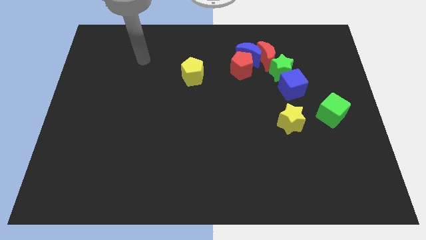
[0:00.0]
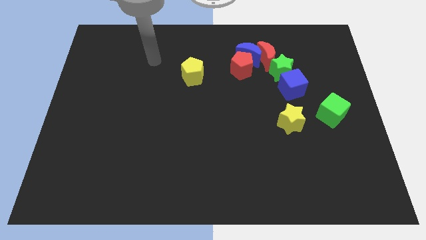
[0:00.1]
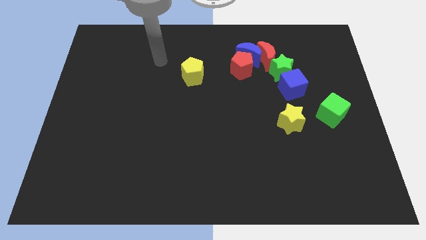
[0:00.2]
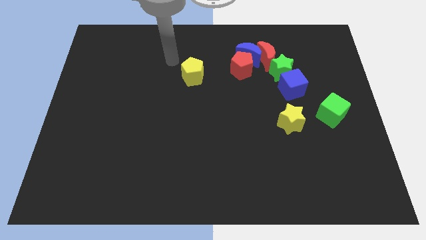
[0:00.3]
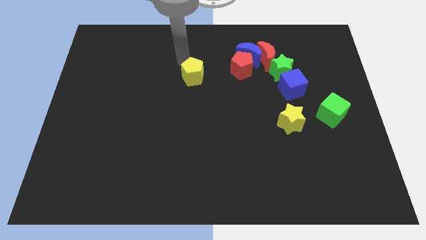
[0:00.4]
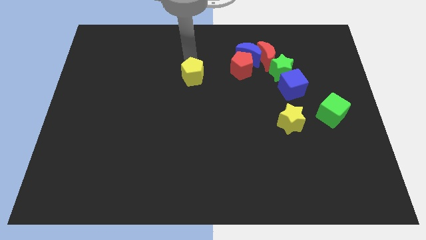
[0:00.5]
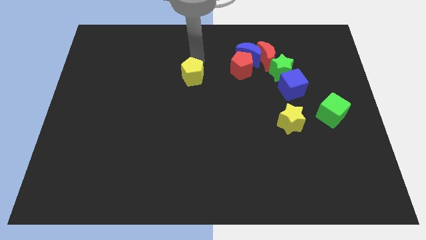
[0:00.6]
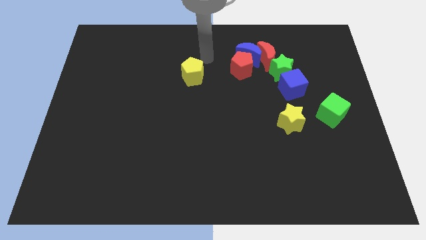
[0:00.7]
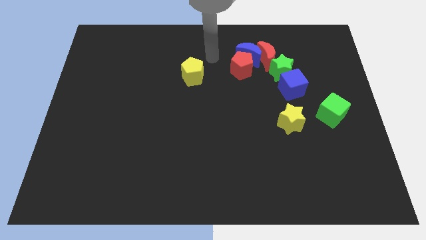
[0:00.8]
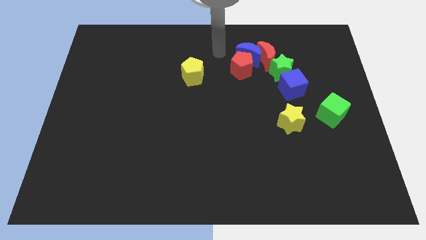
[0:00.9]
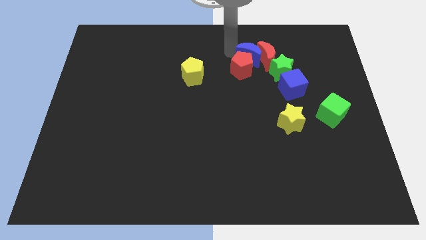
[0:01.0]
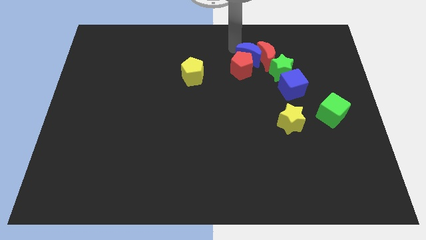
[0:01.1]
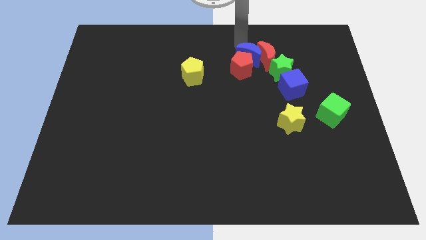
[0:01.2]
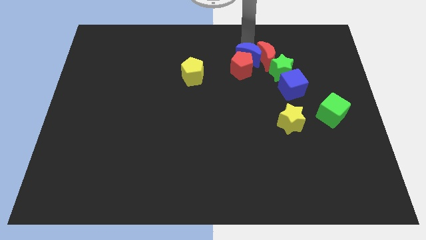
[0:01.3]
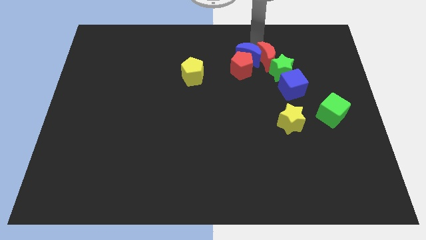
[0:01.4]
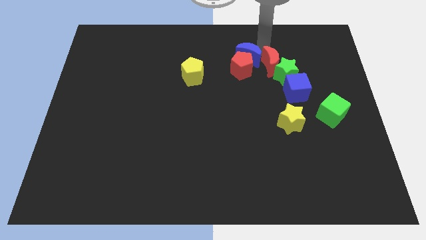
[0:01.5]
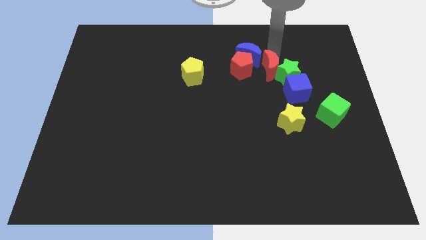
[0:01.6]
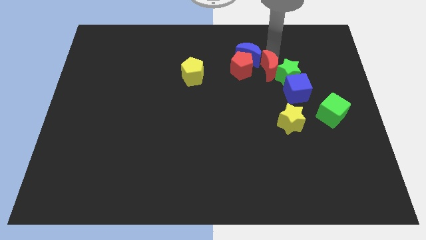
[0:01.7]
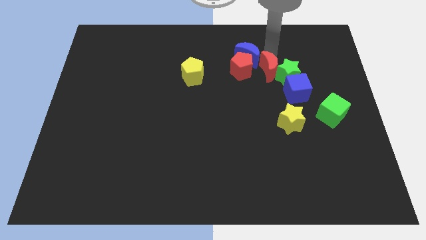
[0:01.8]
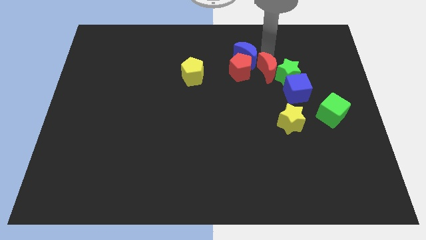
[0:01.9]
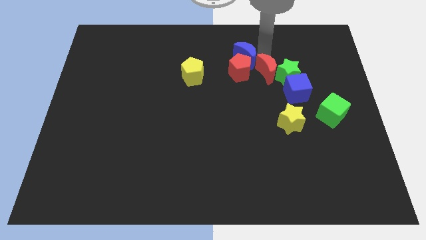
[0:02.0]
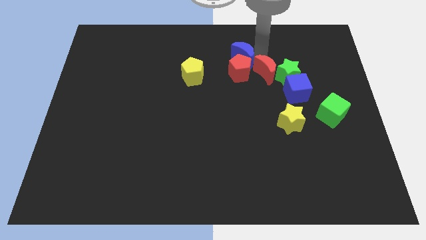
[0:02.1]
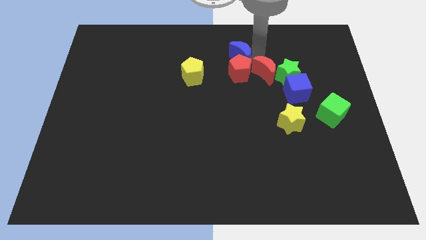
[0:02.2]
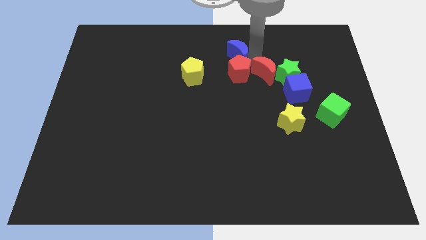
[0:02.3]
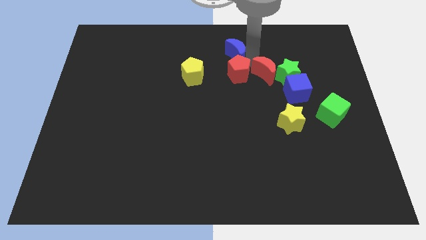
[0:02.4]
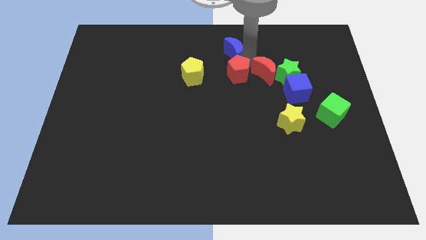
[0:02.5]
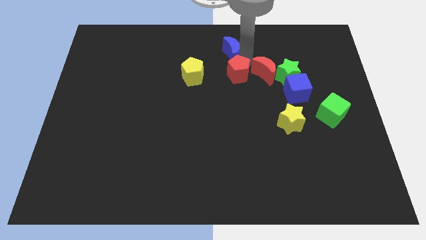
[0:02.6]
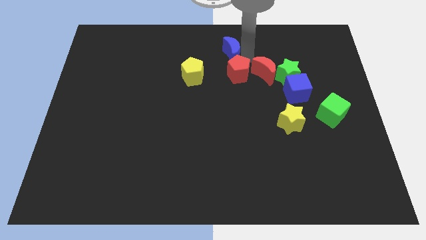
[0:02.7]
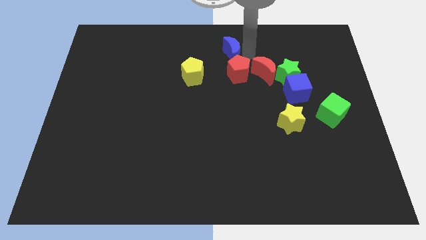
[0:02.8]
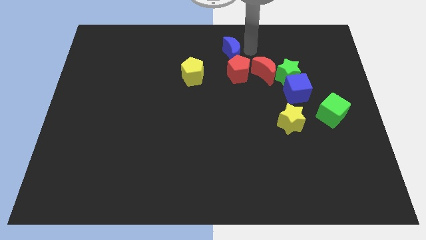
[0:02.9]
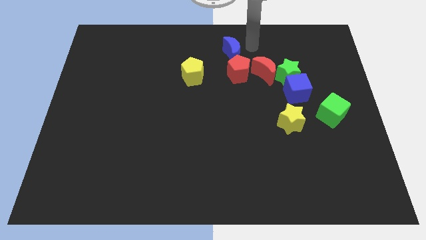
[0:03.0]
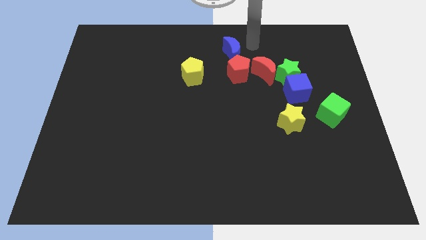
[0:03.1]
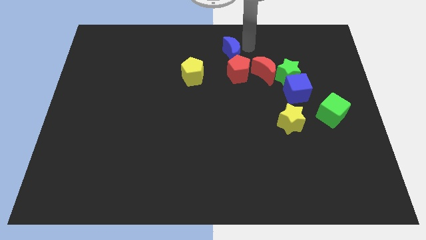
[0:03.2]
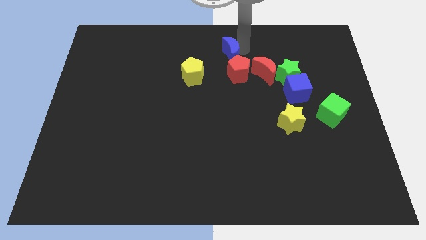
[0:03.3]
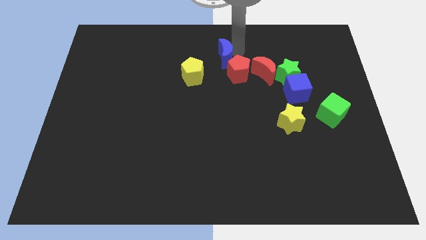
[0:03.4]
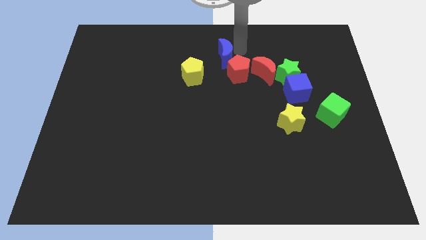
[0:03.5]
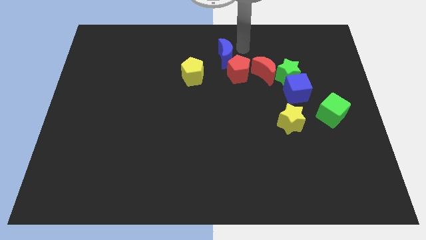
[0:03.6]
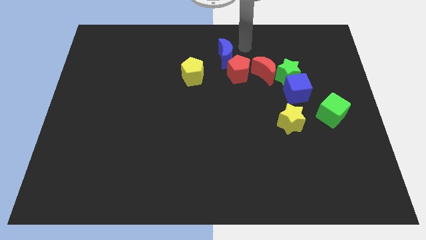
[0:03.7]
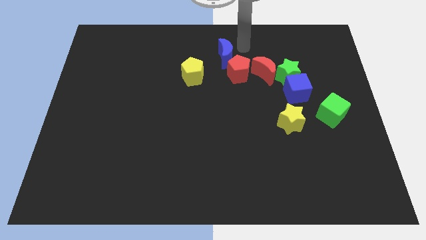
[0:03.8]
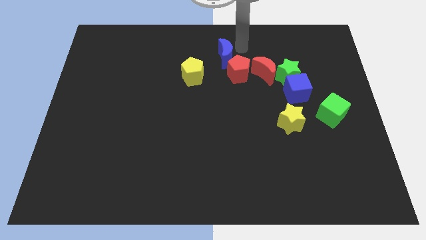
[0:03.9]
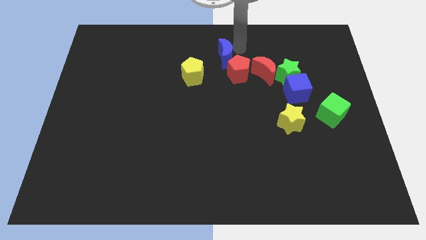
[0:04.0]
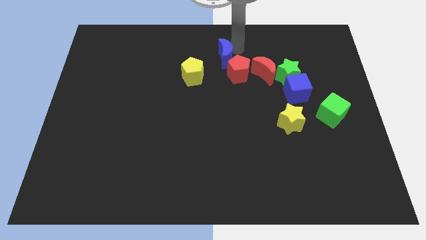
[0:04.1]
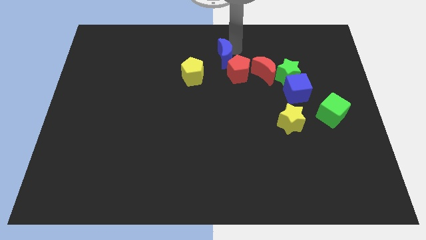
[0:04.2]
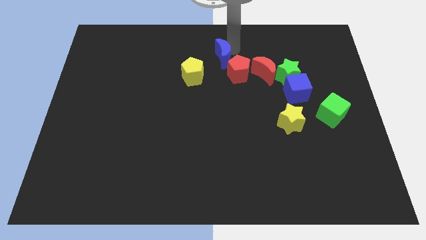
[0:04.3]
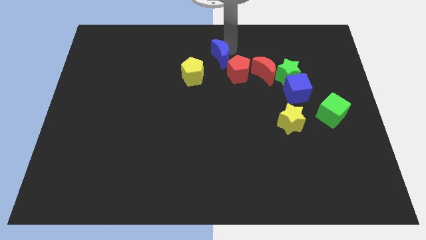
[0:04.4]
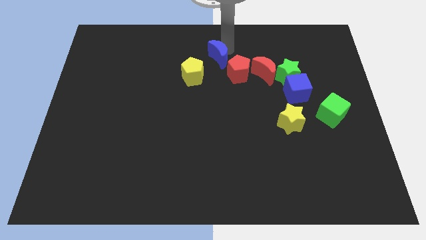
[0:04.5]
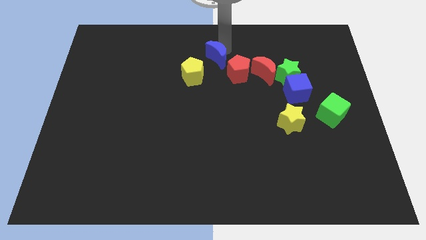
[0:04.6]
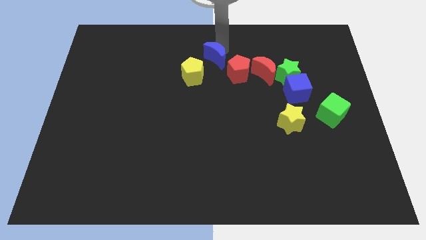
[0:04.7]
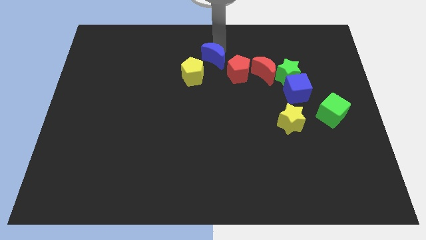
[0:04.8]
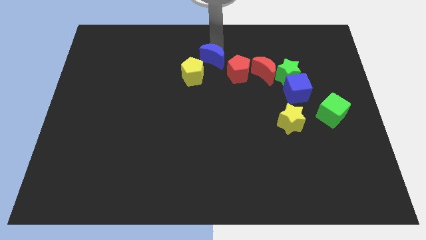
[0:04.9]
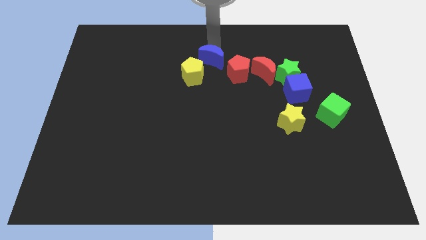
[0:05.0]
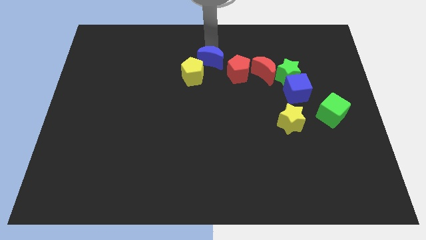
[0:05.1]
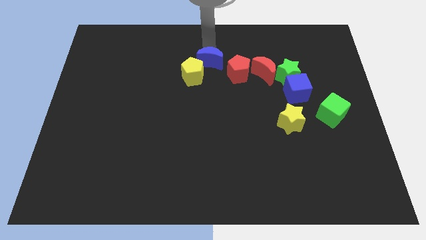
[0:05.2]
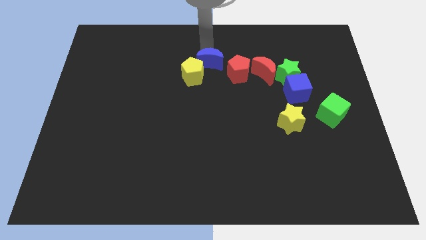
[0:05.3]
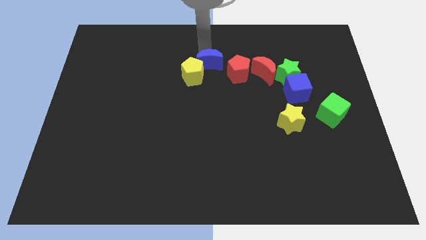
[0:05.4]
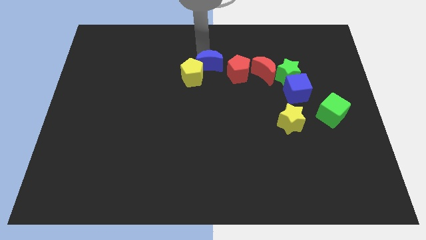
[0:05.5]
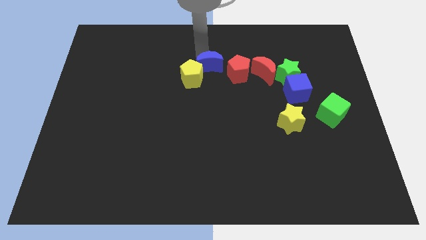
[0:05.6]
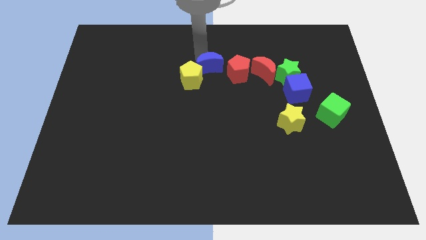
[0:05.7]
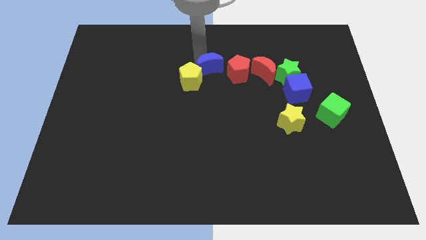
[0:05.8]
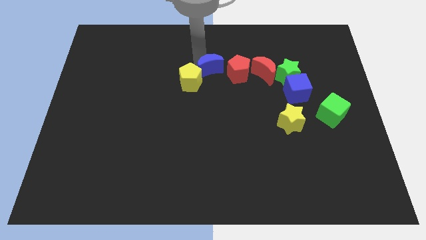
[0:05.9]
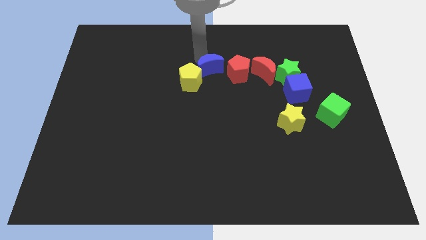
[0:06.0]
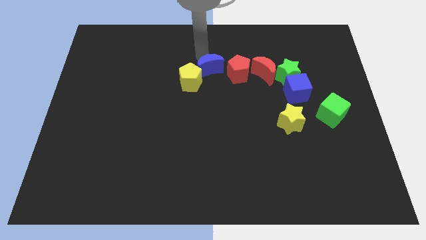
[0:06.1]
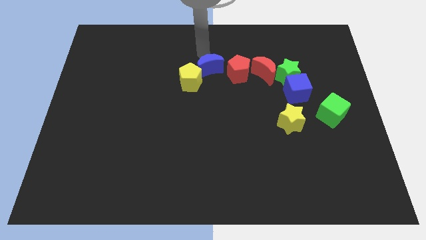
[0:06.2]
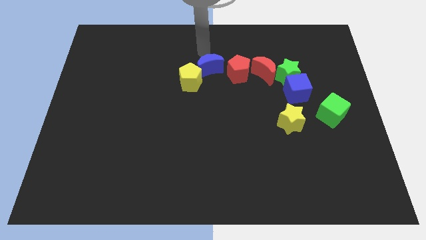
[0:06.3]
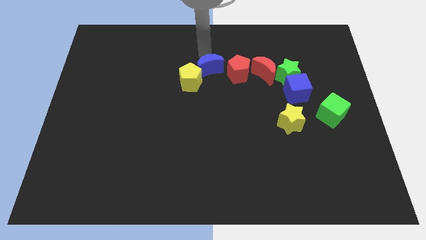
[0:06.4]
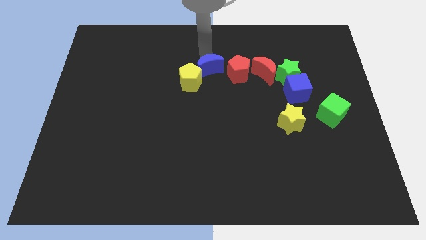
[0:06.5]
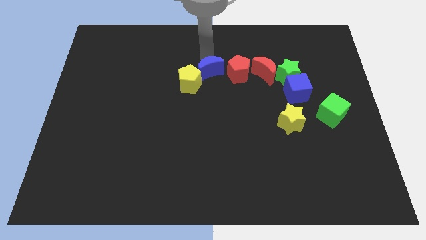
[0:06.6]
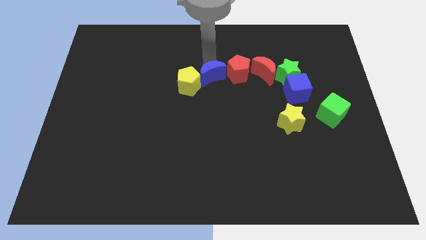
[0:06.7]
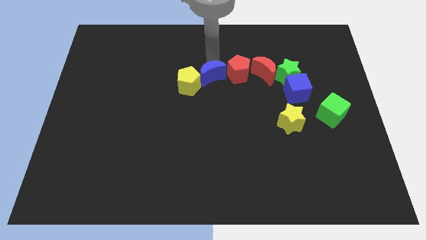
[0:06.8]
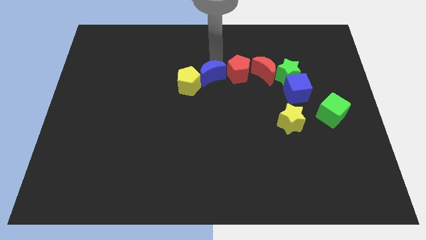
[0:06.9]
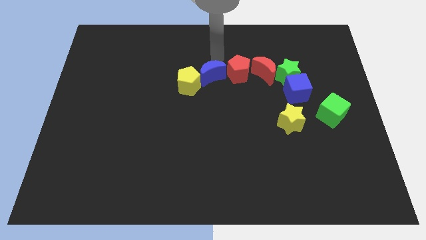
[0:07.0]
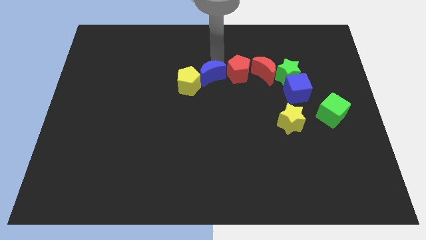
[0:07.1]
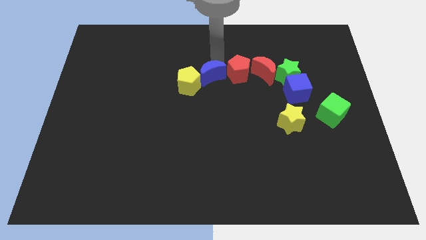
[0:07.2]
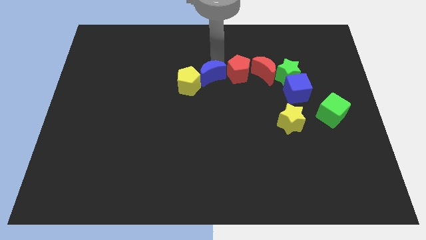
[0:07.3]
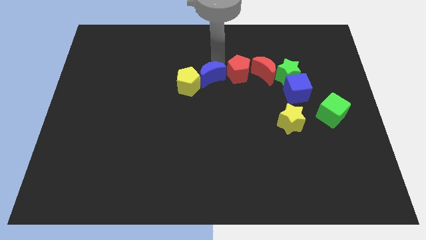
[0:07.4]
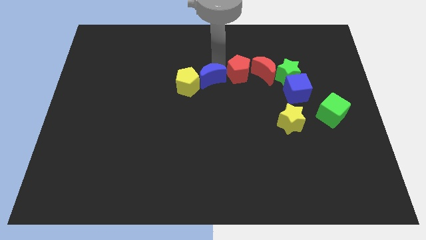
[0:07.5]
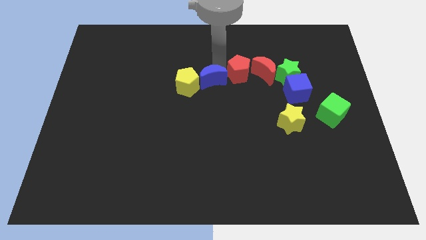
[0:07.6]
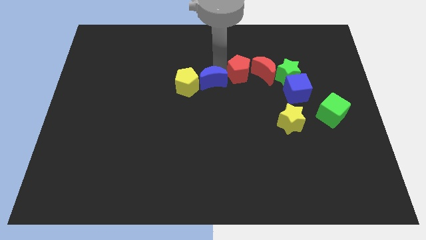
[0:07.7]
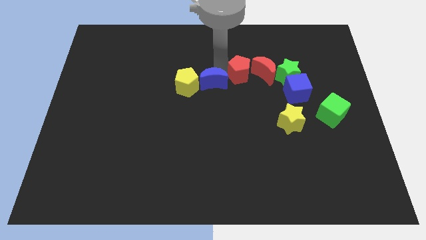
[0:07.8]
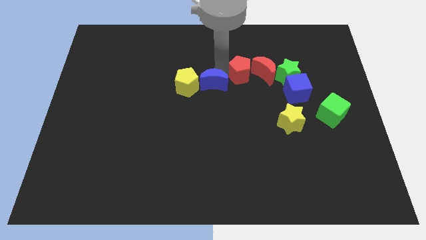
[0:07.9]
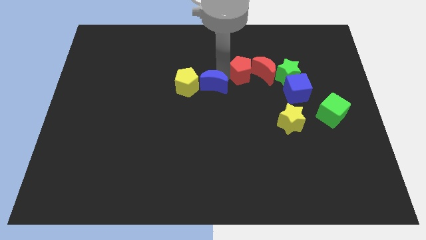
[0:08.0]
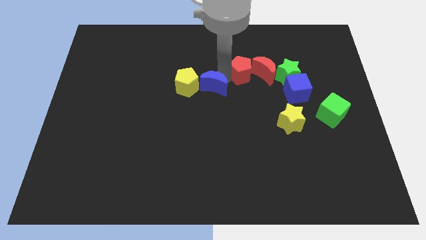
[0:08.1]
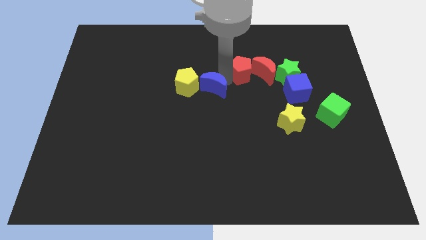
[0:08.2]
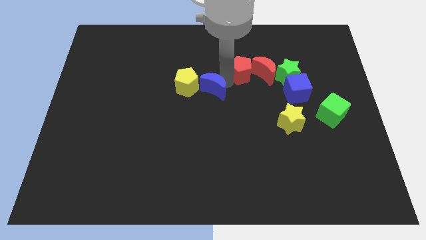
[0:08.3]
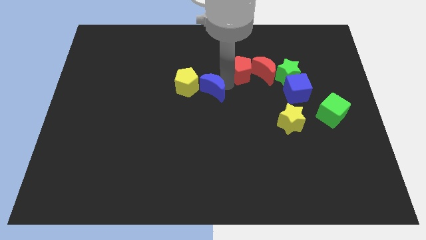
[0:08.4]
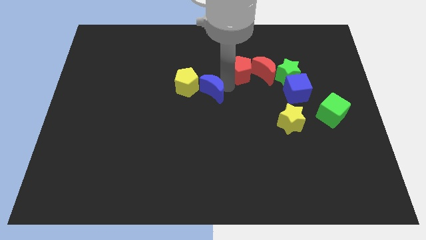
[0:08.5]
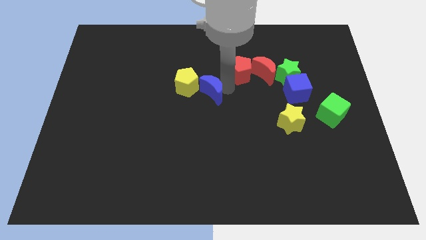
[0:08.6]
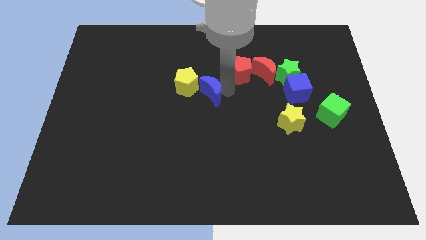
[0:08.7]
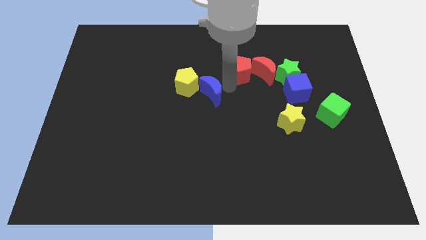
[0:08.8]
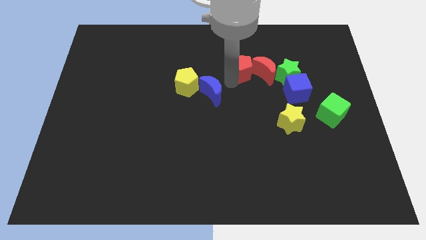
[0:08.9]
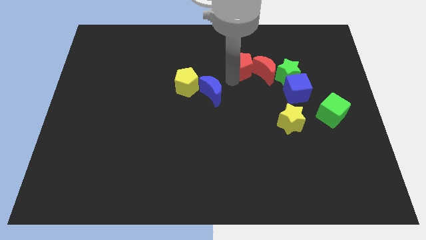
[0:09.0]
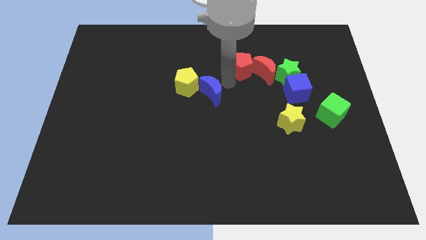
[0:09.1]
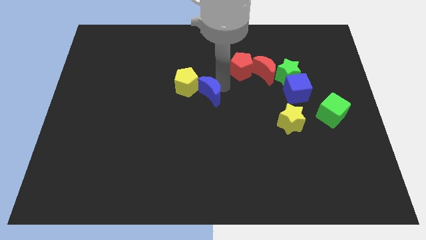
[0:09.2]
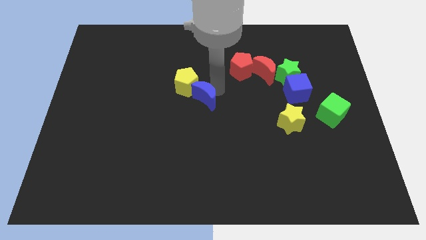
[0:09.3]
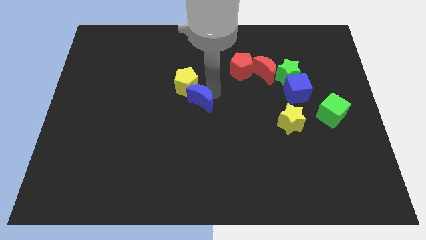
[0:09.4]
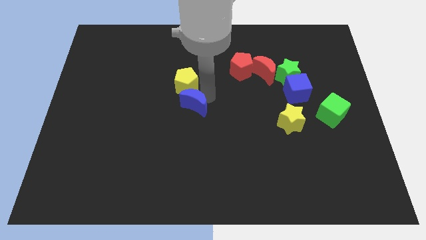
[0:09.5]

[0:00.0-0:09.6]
move the blue moon downwards and to the left
